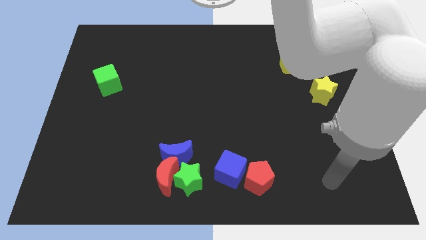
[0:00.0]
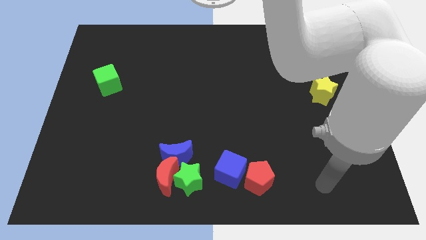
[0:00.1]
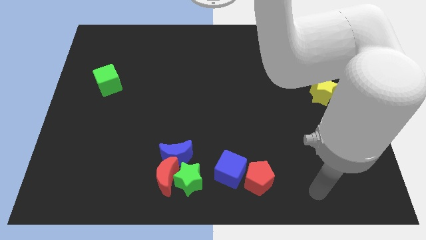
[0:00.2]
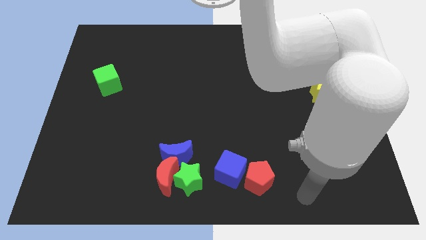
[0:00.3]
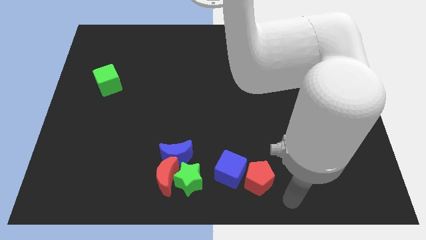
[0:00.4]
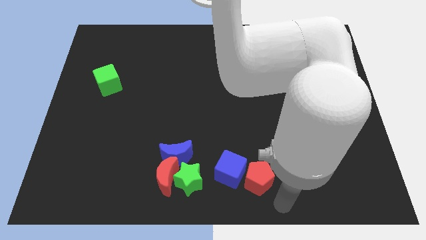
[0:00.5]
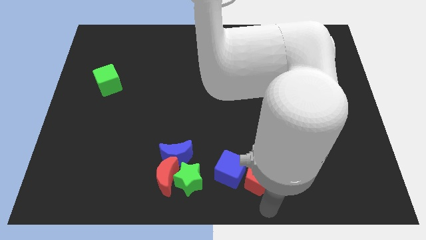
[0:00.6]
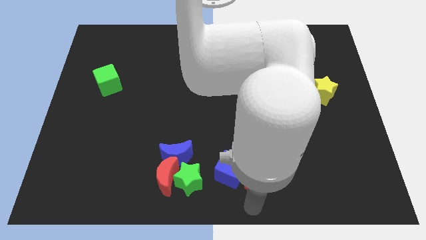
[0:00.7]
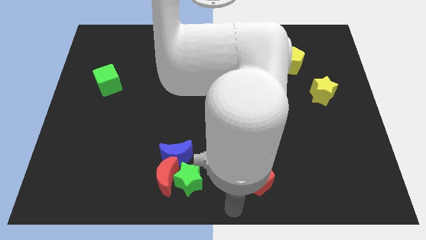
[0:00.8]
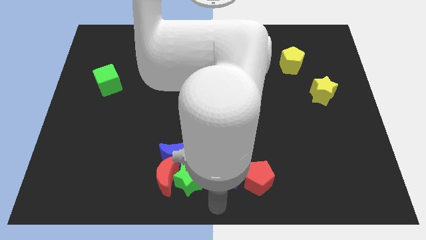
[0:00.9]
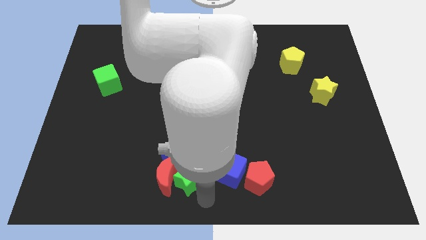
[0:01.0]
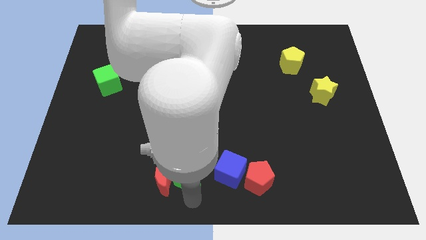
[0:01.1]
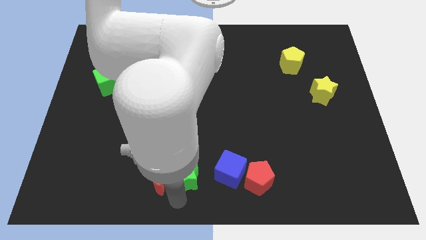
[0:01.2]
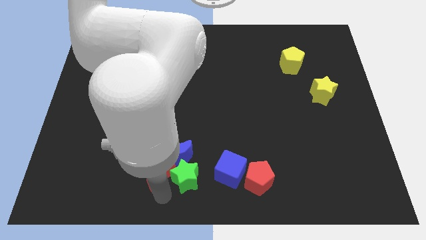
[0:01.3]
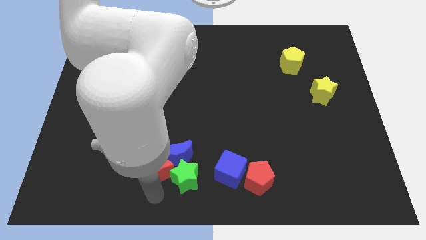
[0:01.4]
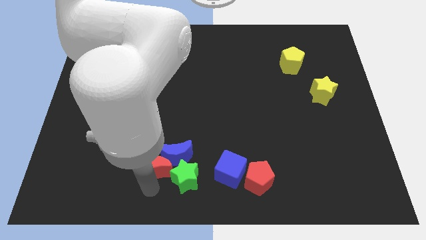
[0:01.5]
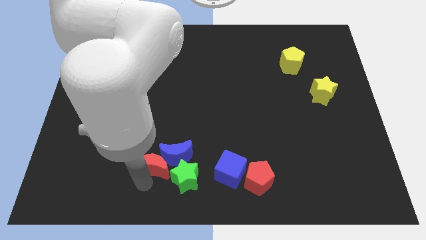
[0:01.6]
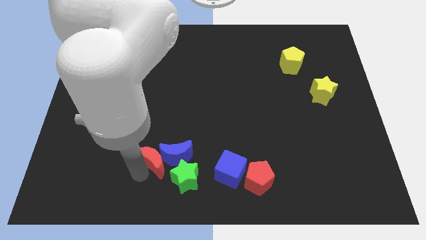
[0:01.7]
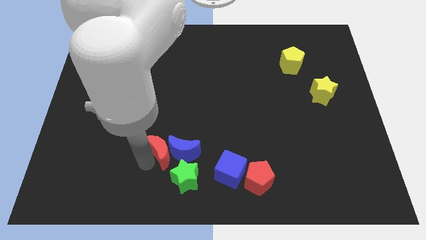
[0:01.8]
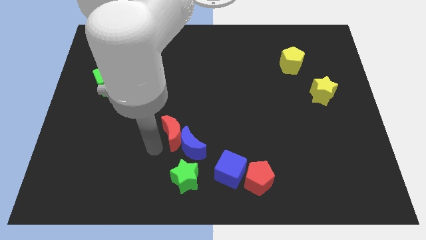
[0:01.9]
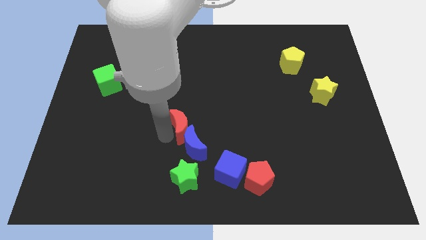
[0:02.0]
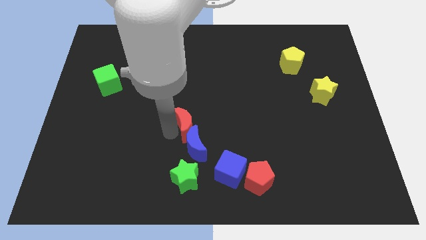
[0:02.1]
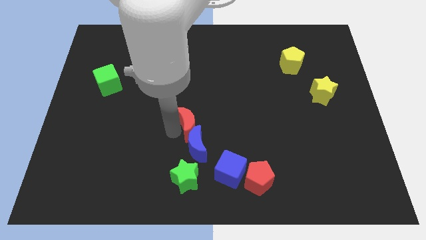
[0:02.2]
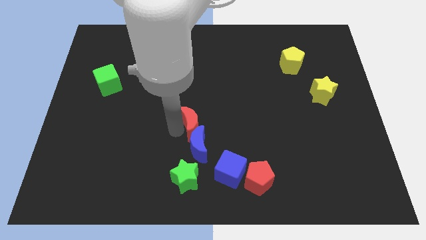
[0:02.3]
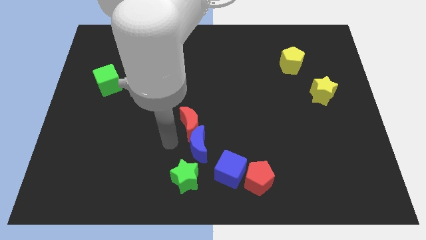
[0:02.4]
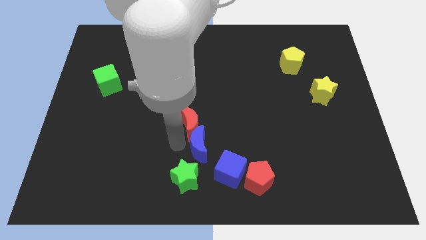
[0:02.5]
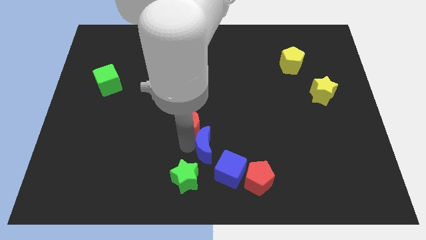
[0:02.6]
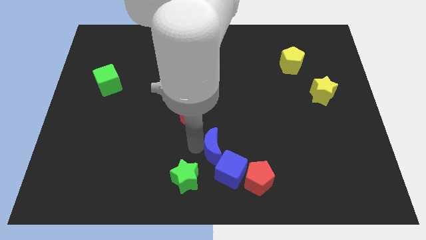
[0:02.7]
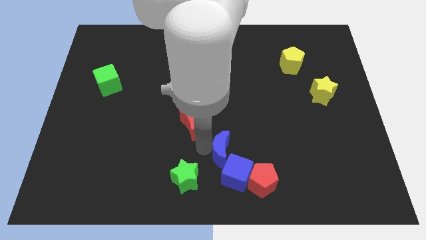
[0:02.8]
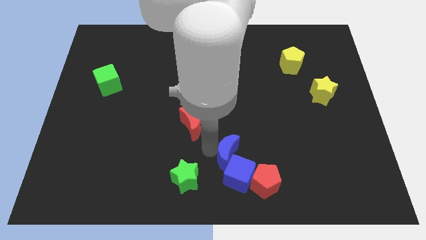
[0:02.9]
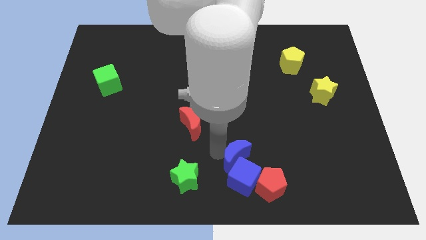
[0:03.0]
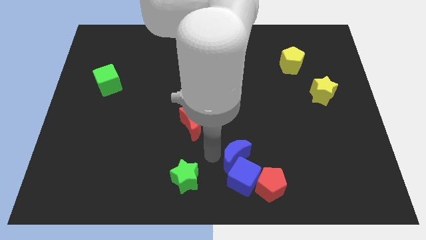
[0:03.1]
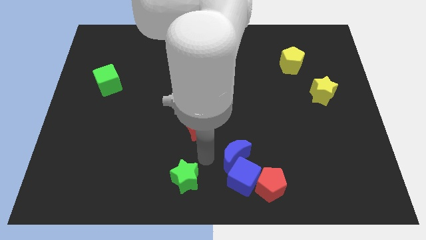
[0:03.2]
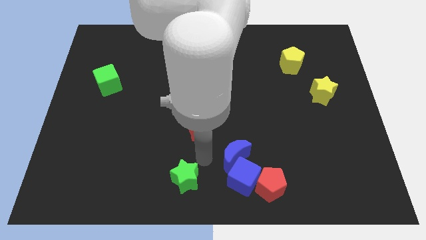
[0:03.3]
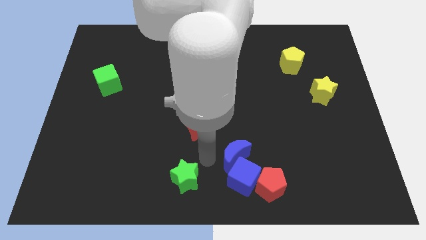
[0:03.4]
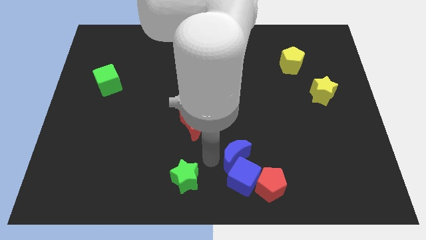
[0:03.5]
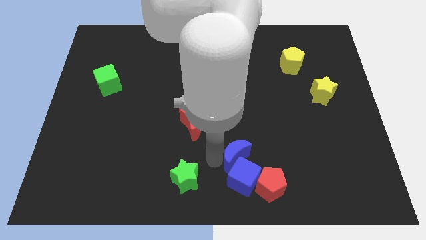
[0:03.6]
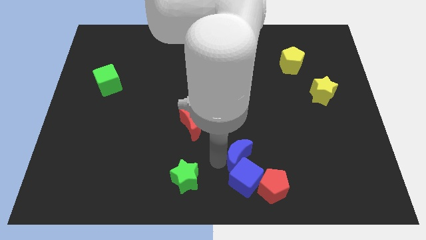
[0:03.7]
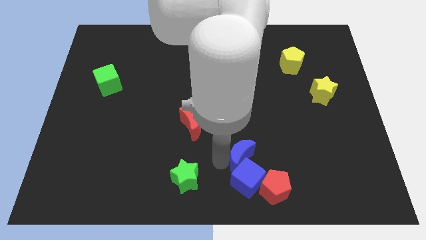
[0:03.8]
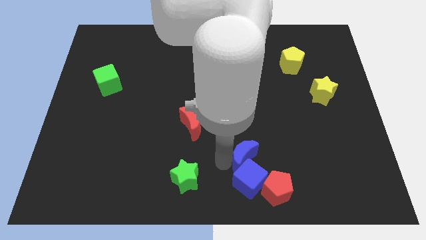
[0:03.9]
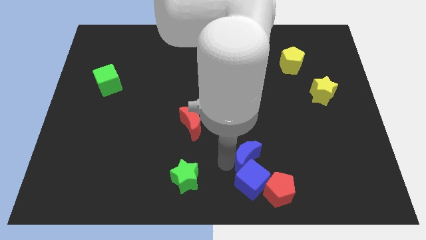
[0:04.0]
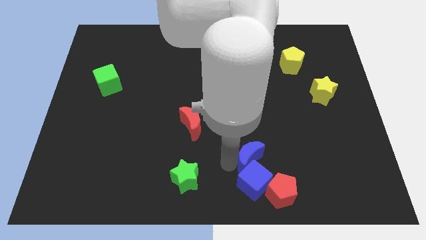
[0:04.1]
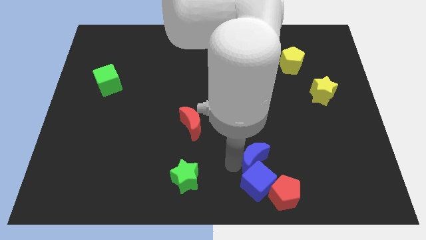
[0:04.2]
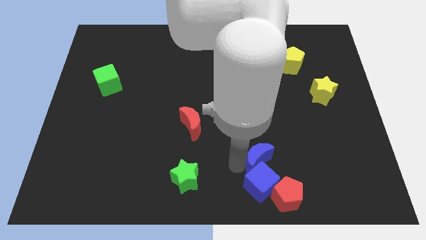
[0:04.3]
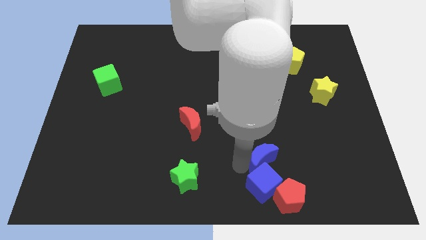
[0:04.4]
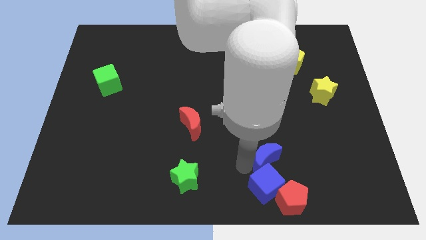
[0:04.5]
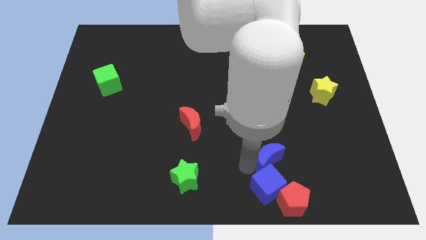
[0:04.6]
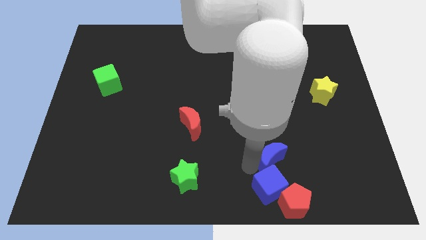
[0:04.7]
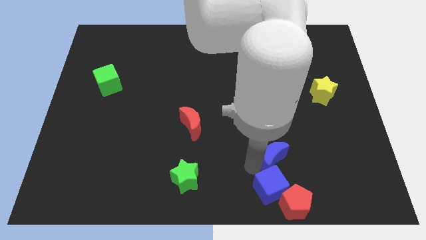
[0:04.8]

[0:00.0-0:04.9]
move the blue moon right

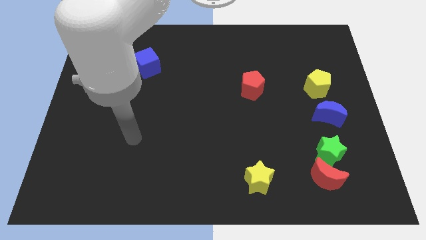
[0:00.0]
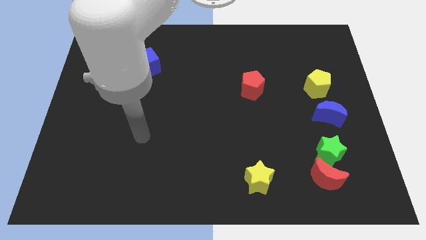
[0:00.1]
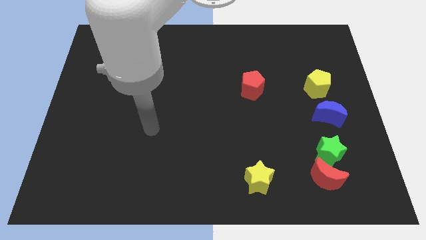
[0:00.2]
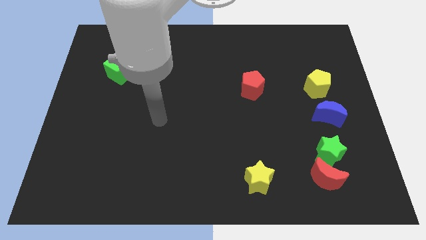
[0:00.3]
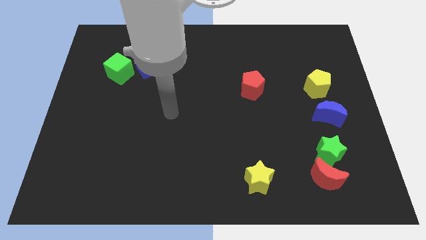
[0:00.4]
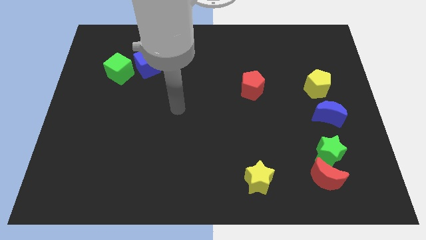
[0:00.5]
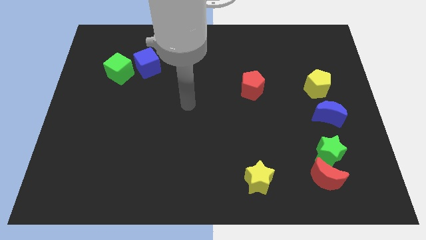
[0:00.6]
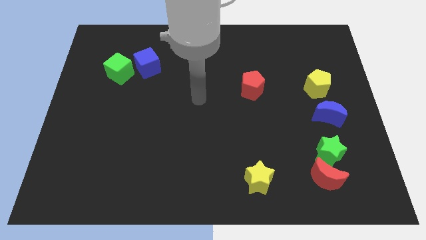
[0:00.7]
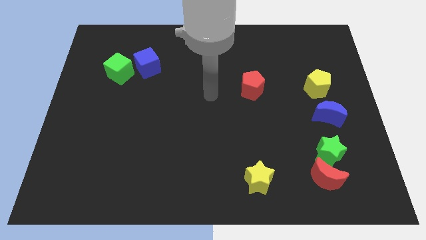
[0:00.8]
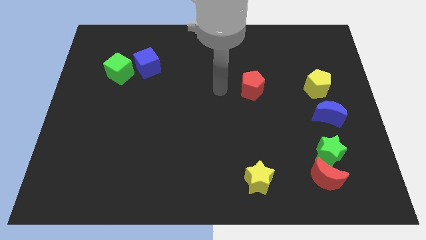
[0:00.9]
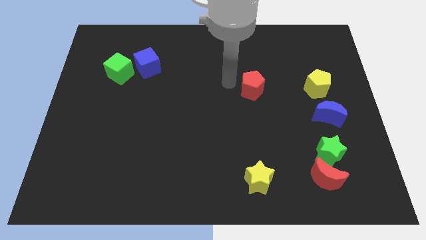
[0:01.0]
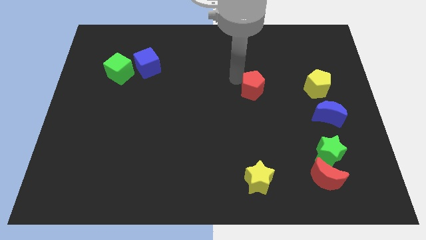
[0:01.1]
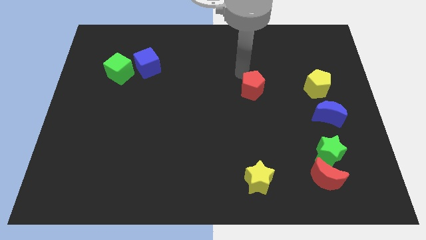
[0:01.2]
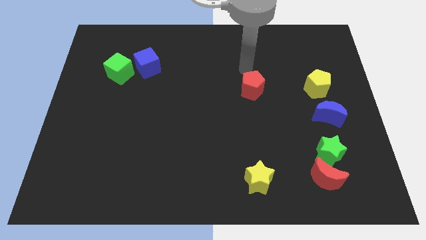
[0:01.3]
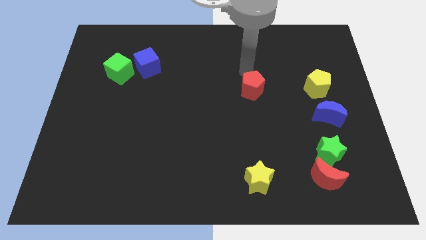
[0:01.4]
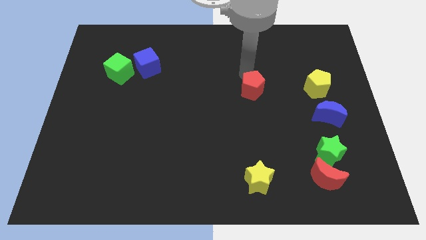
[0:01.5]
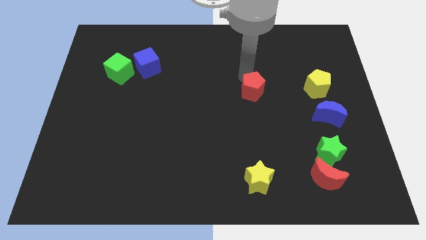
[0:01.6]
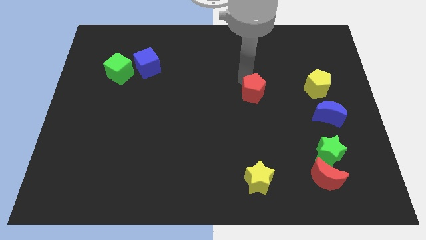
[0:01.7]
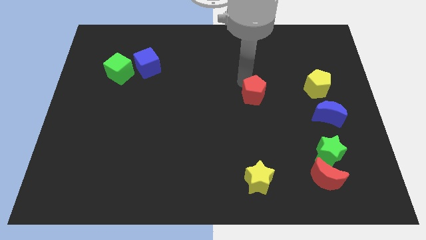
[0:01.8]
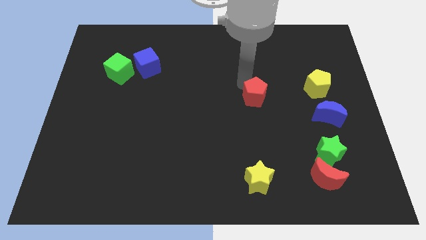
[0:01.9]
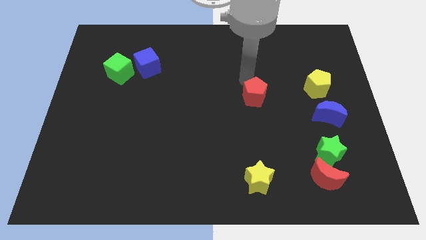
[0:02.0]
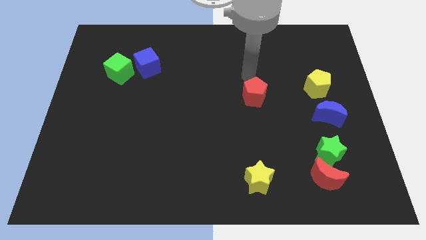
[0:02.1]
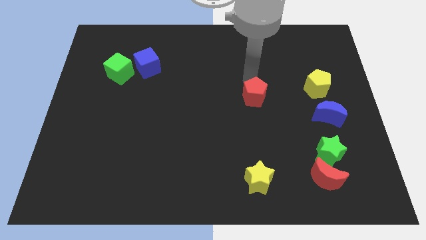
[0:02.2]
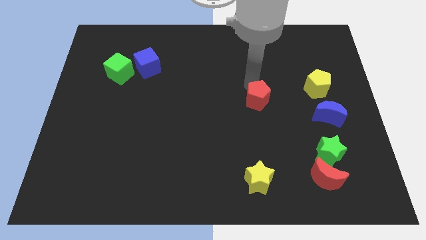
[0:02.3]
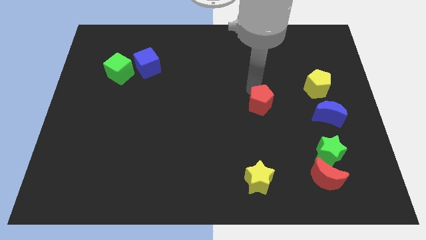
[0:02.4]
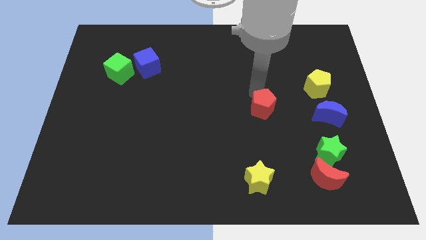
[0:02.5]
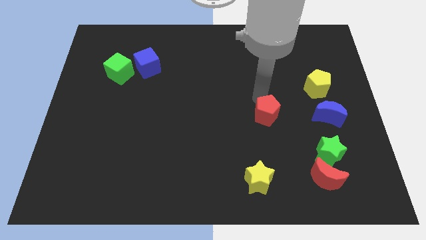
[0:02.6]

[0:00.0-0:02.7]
push the red pentagon downwards somewhat

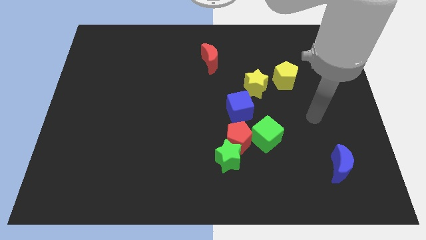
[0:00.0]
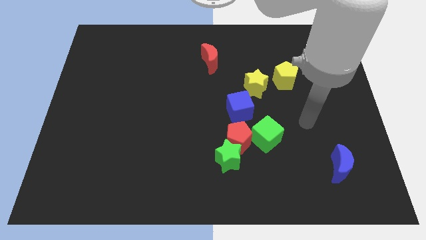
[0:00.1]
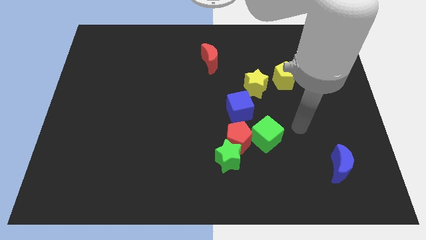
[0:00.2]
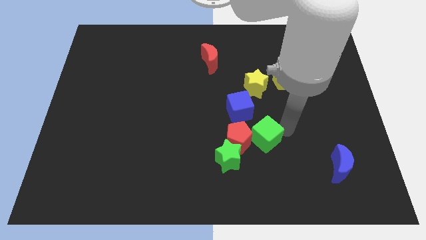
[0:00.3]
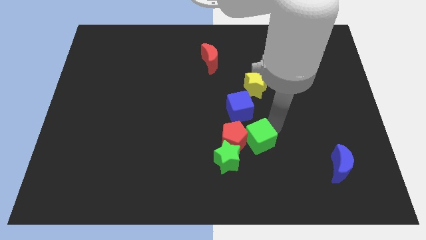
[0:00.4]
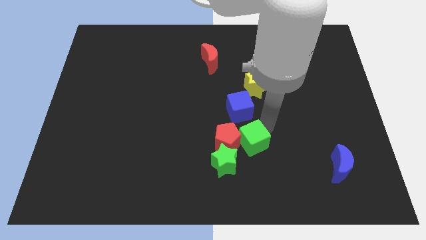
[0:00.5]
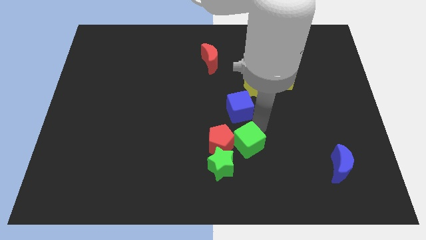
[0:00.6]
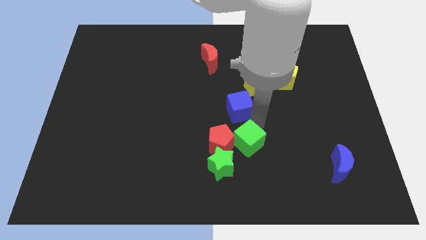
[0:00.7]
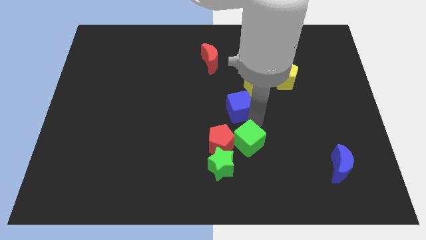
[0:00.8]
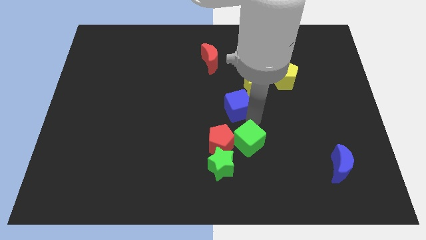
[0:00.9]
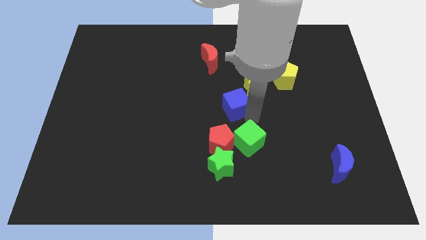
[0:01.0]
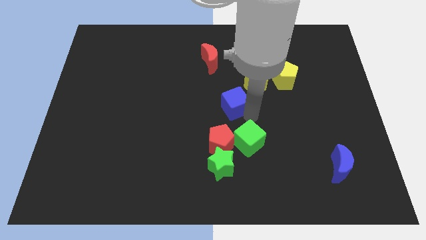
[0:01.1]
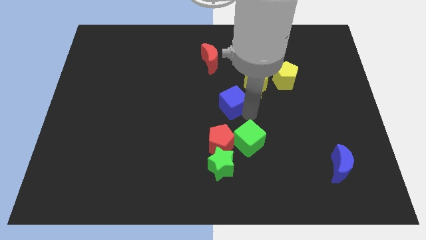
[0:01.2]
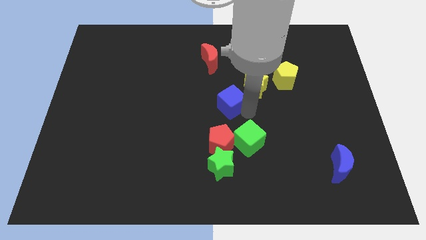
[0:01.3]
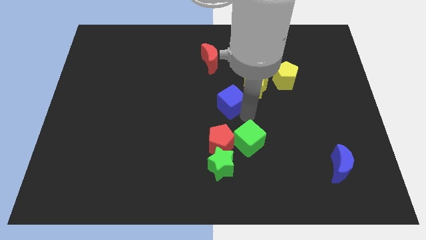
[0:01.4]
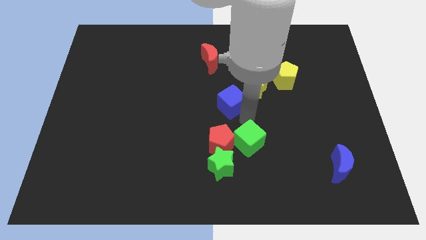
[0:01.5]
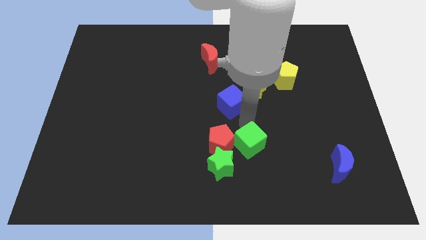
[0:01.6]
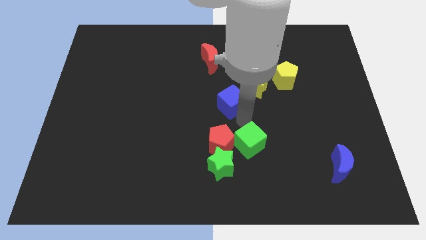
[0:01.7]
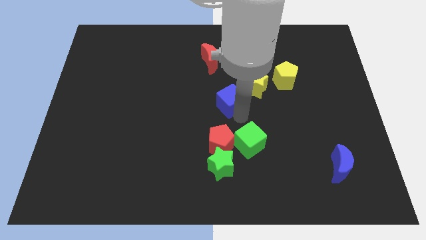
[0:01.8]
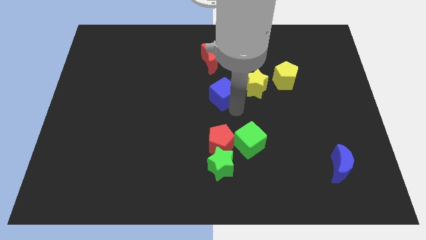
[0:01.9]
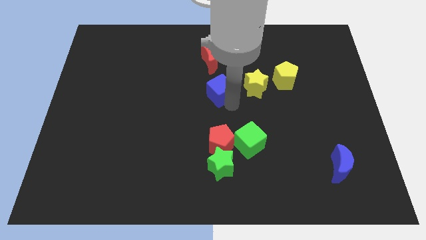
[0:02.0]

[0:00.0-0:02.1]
slightly slide the blue cube up and left diagonally
